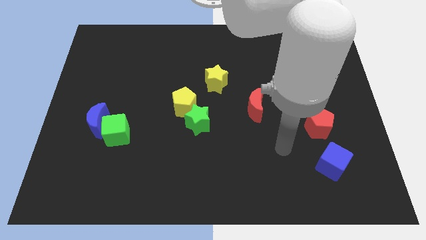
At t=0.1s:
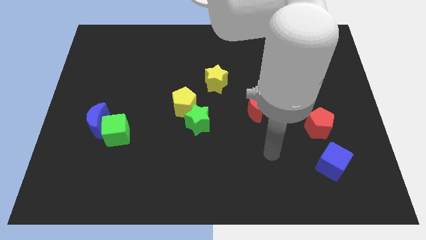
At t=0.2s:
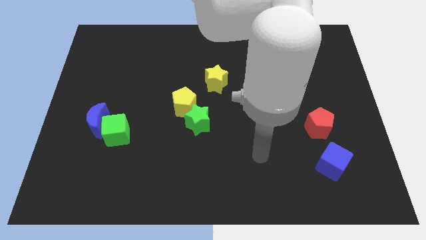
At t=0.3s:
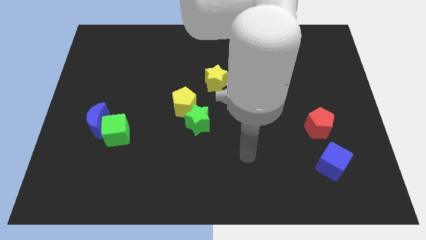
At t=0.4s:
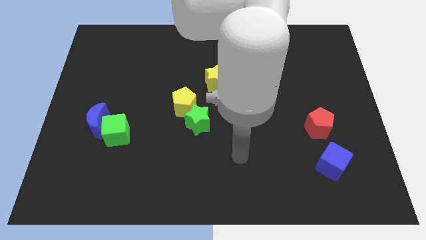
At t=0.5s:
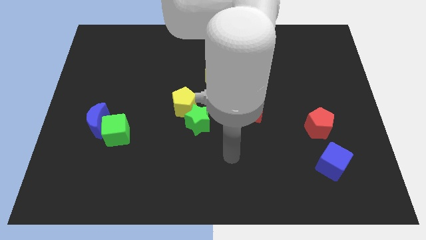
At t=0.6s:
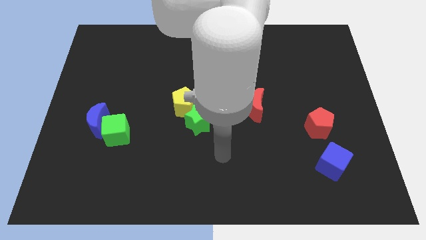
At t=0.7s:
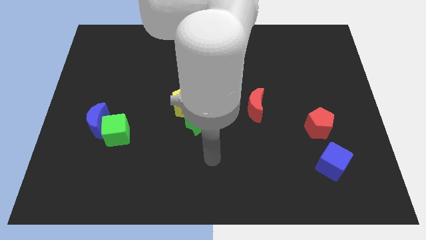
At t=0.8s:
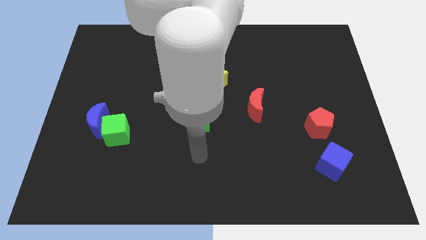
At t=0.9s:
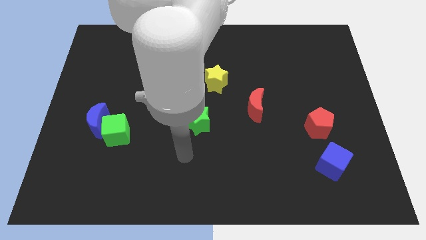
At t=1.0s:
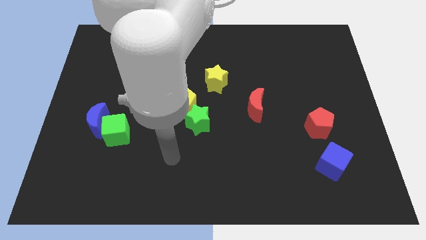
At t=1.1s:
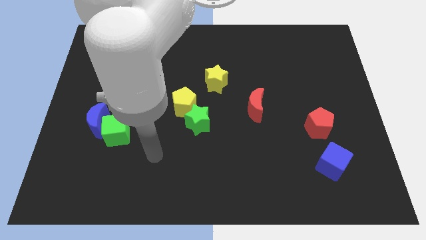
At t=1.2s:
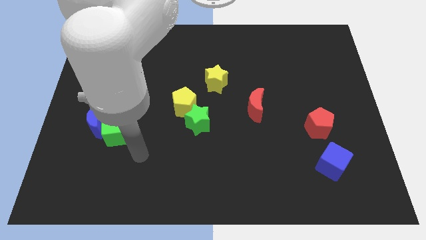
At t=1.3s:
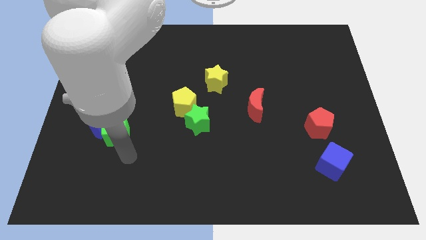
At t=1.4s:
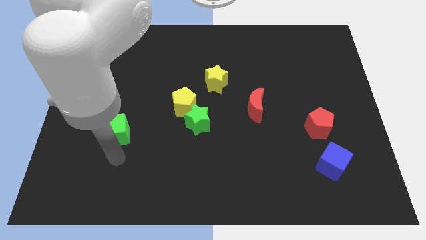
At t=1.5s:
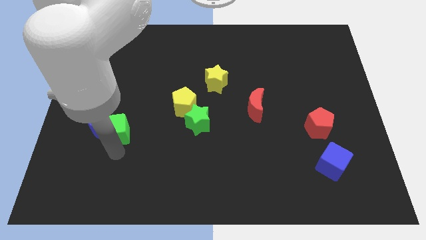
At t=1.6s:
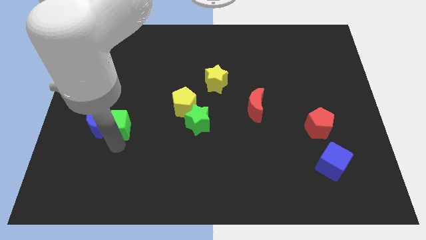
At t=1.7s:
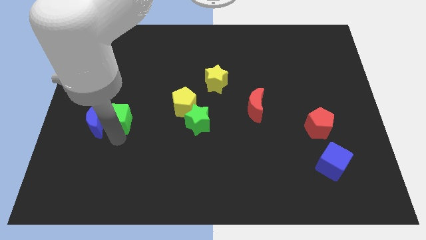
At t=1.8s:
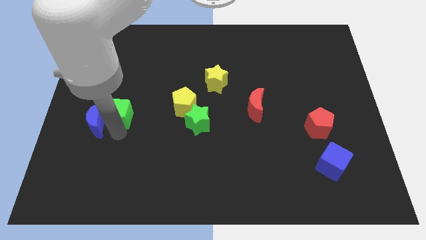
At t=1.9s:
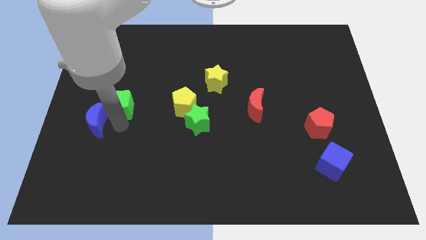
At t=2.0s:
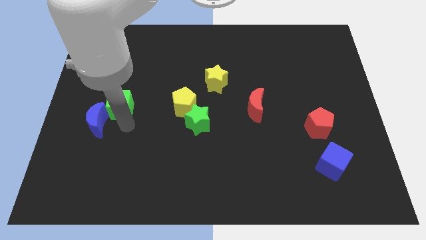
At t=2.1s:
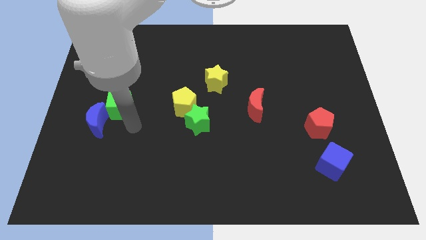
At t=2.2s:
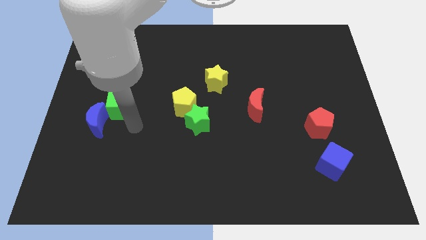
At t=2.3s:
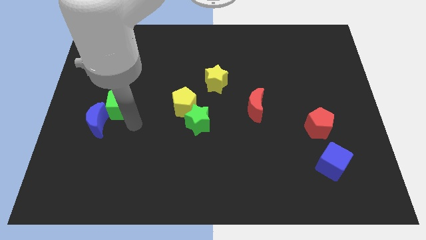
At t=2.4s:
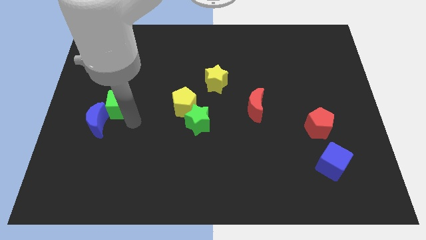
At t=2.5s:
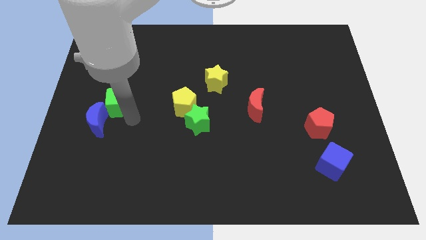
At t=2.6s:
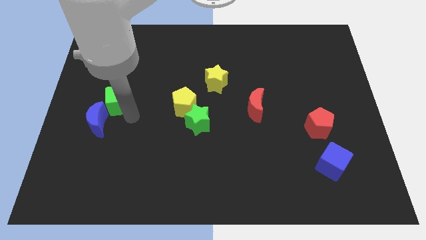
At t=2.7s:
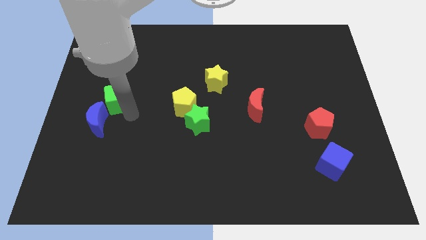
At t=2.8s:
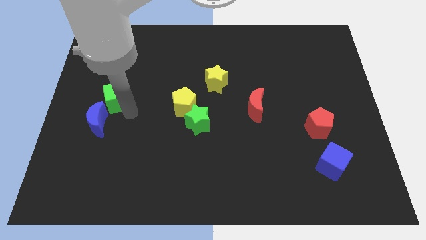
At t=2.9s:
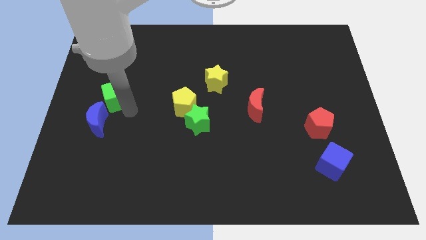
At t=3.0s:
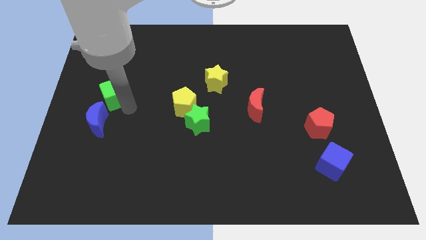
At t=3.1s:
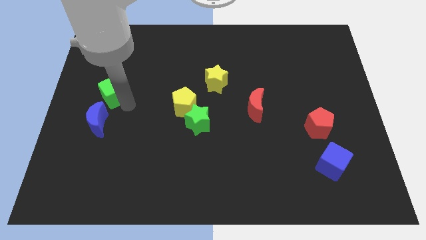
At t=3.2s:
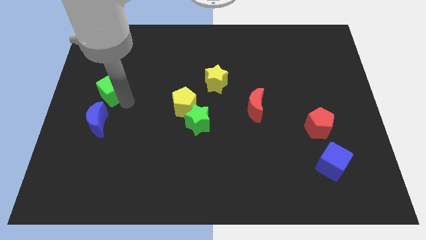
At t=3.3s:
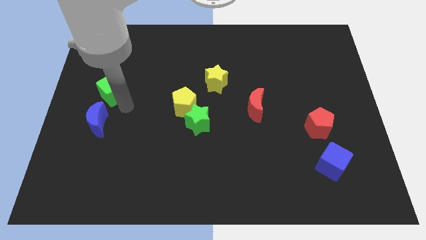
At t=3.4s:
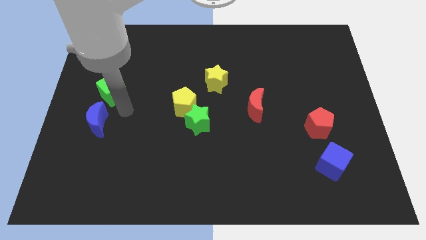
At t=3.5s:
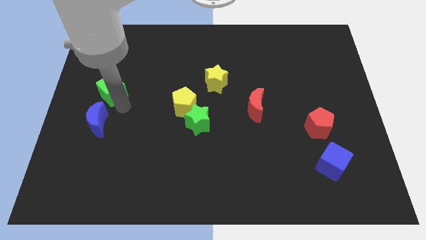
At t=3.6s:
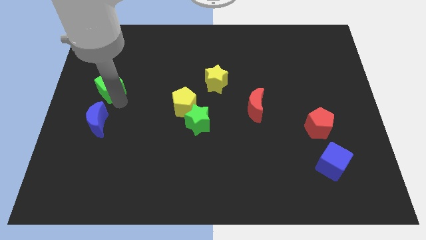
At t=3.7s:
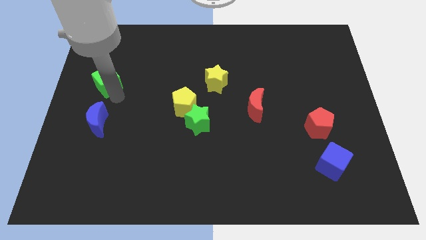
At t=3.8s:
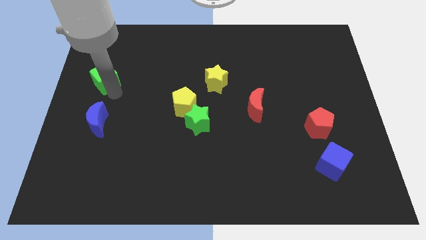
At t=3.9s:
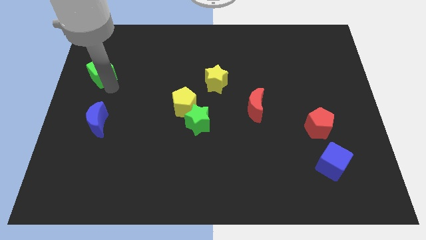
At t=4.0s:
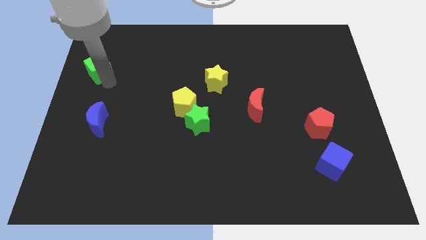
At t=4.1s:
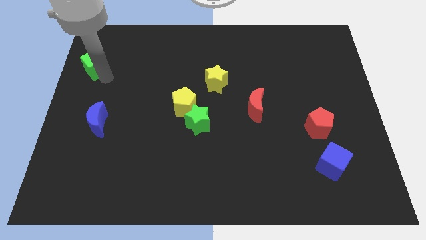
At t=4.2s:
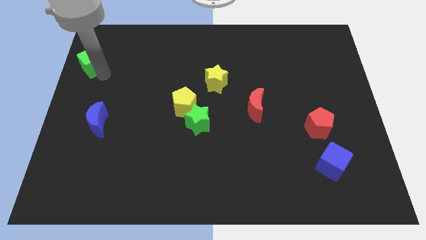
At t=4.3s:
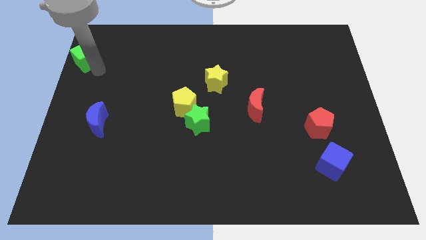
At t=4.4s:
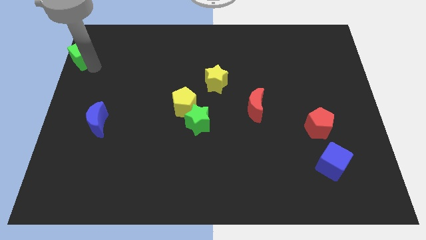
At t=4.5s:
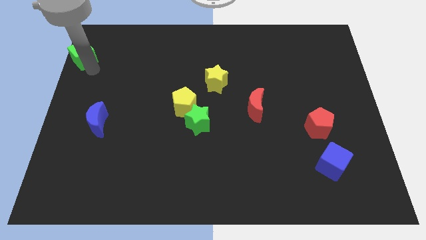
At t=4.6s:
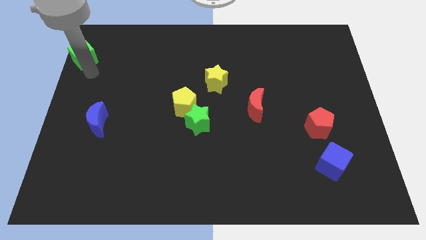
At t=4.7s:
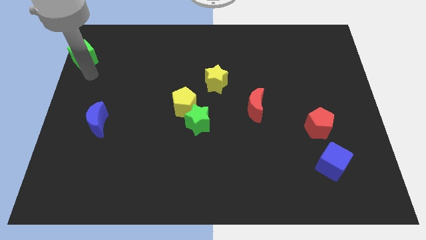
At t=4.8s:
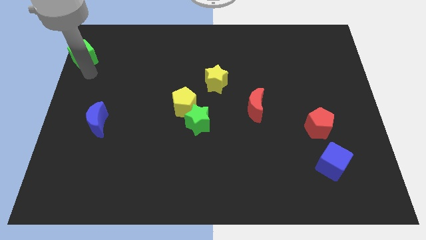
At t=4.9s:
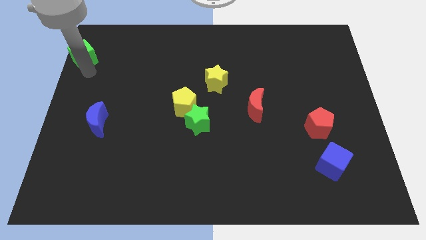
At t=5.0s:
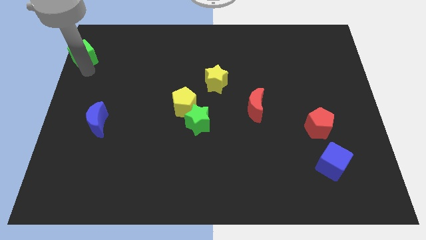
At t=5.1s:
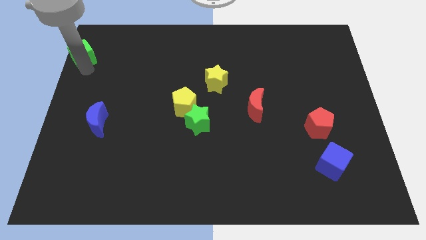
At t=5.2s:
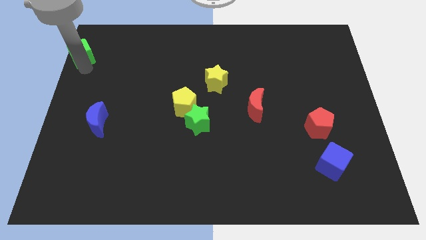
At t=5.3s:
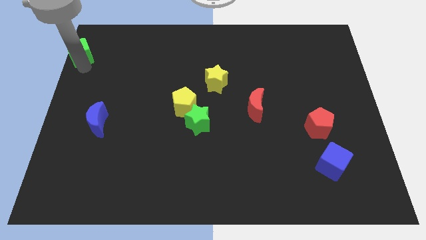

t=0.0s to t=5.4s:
move the green cube to the upper left corner

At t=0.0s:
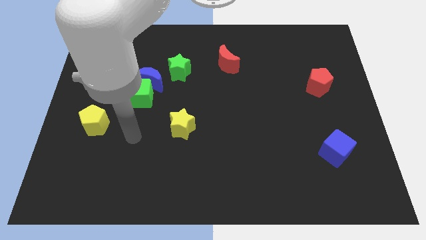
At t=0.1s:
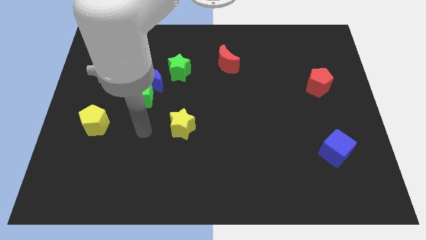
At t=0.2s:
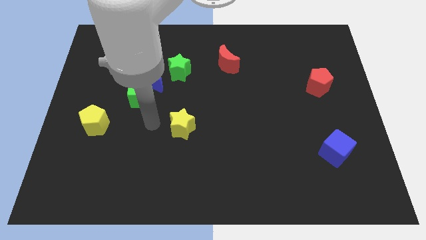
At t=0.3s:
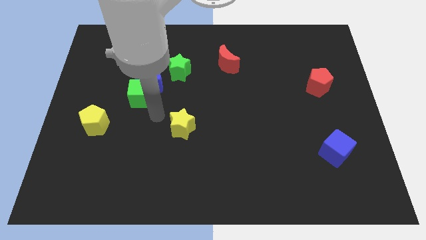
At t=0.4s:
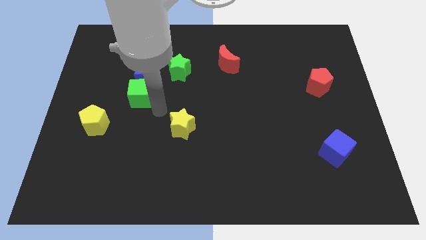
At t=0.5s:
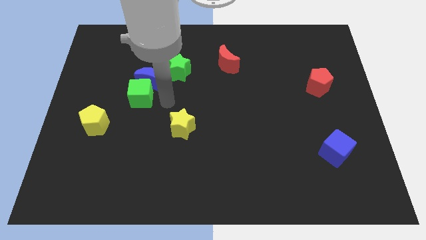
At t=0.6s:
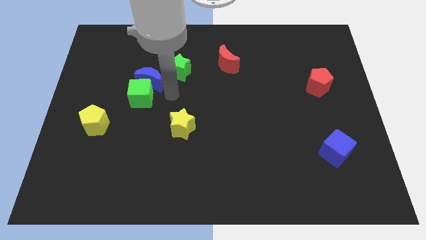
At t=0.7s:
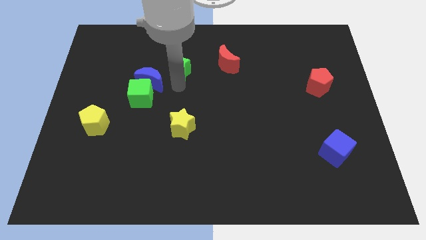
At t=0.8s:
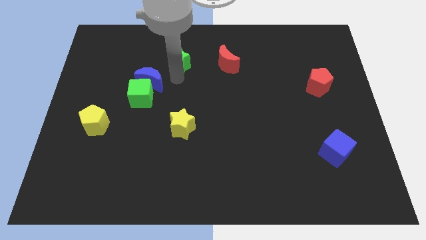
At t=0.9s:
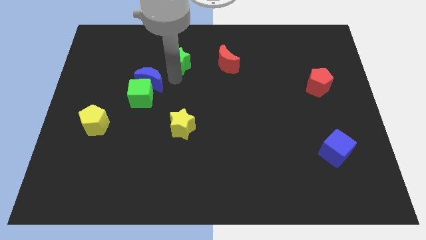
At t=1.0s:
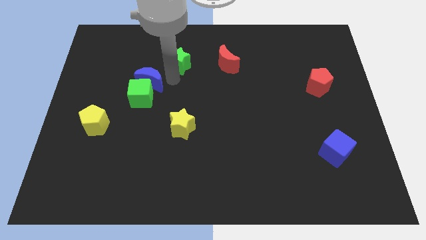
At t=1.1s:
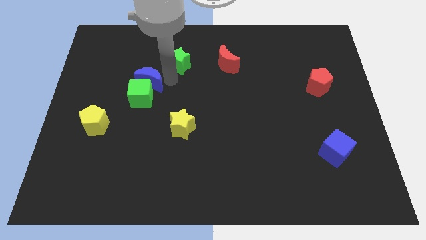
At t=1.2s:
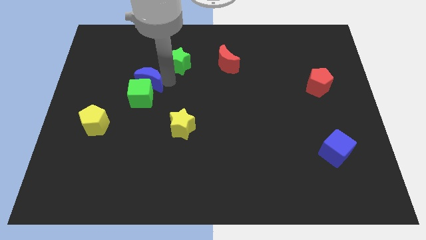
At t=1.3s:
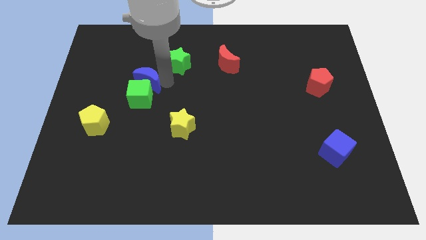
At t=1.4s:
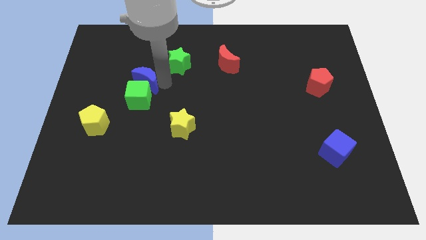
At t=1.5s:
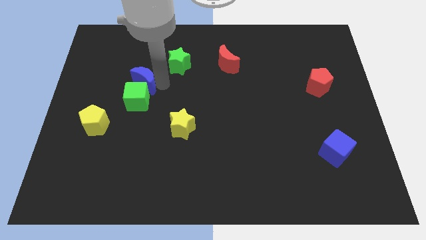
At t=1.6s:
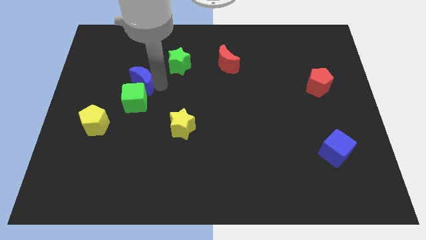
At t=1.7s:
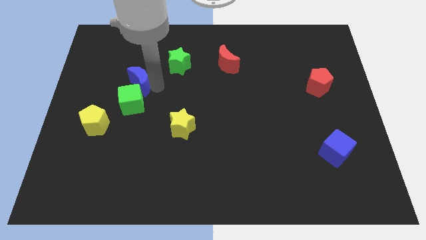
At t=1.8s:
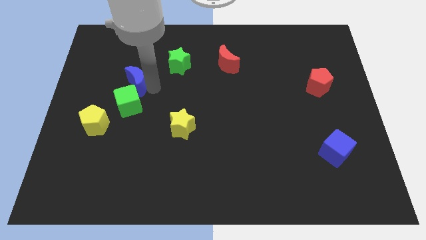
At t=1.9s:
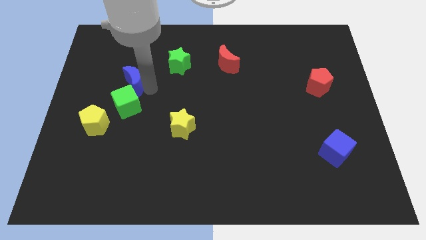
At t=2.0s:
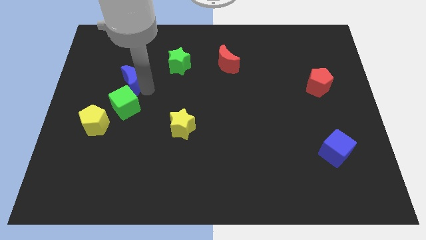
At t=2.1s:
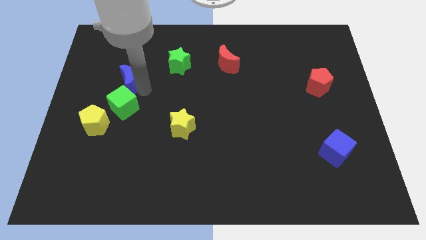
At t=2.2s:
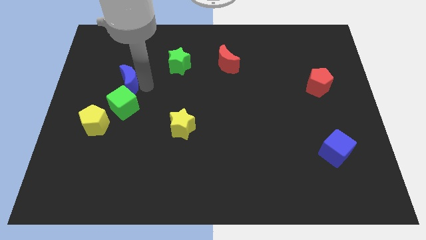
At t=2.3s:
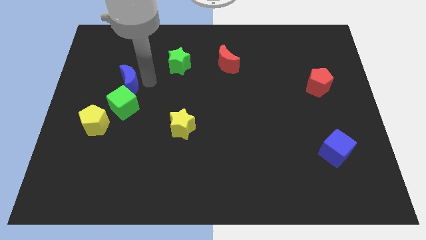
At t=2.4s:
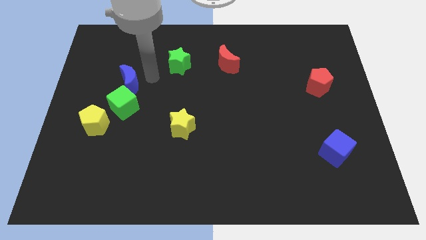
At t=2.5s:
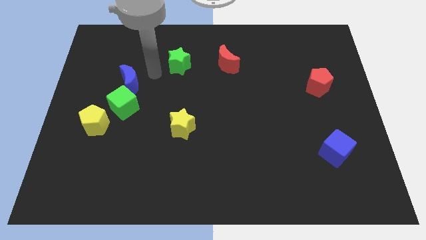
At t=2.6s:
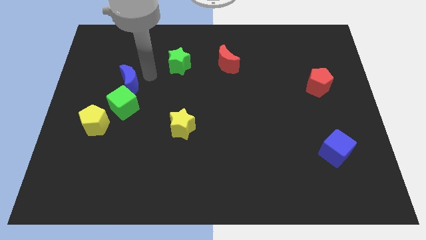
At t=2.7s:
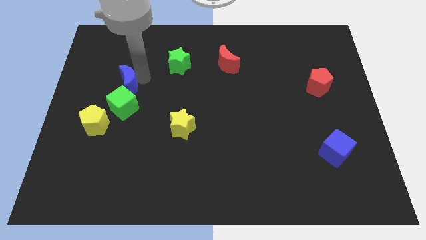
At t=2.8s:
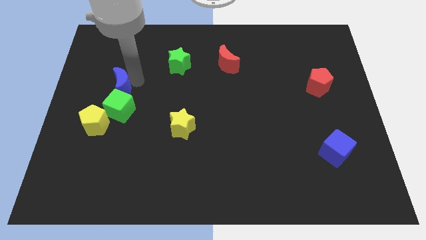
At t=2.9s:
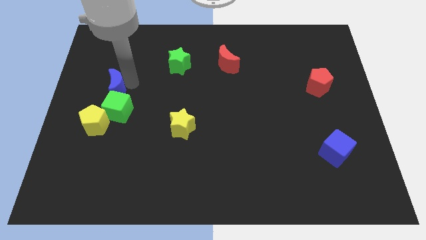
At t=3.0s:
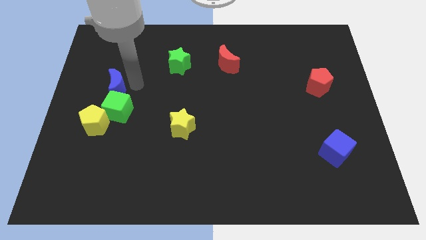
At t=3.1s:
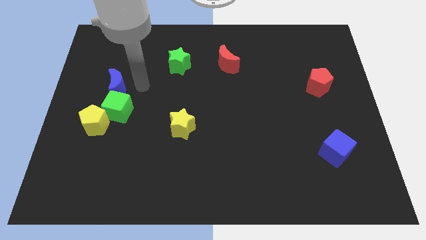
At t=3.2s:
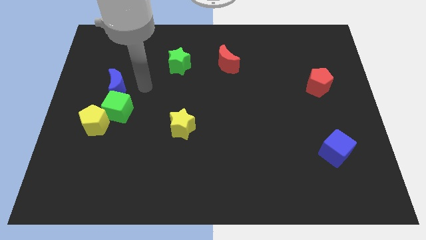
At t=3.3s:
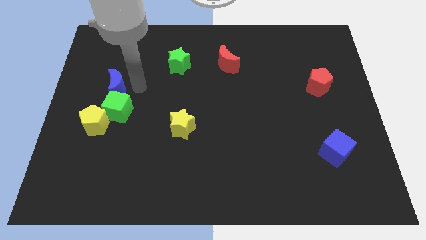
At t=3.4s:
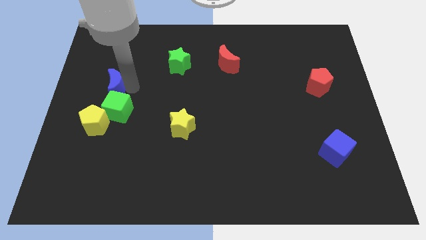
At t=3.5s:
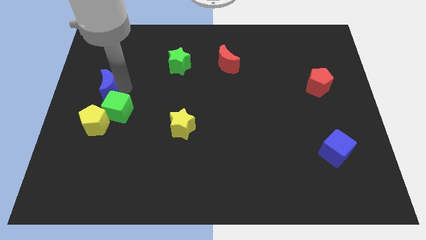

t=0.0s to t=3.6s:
slide the blue moon to the center left
